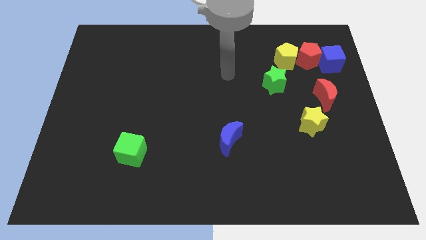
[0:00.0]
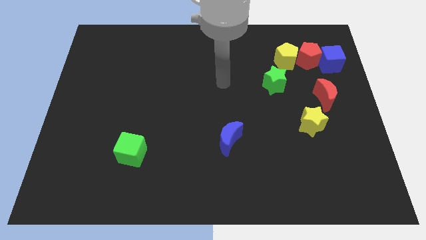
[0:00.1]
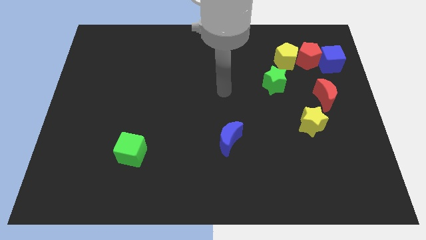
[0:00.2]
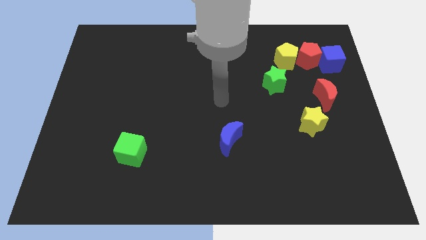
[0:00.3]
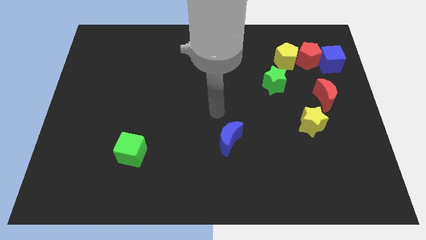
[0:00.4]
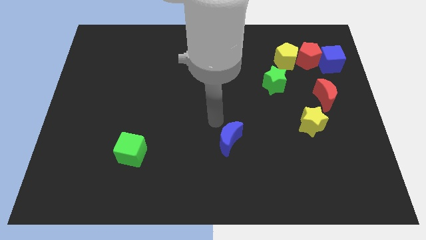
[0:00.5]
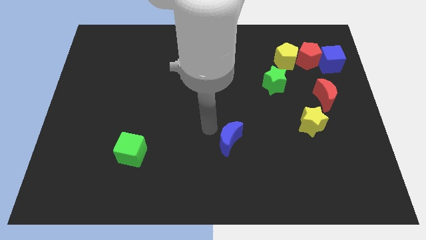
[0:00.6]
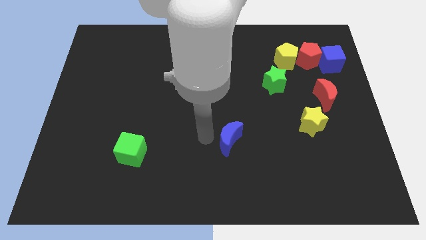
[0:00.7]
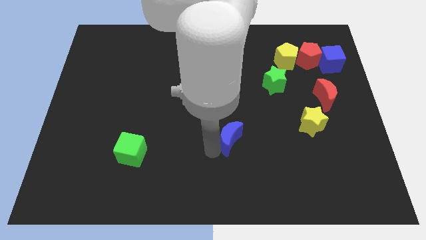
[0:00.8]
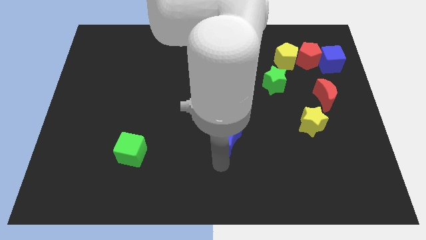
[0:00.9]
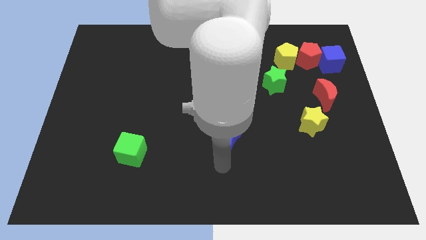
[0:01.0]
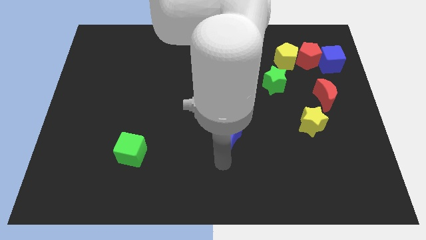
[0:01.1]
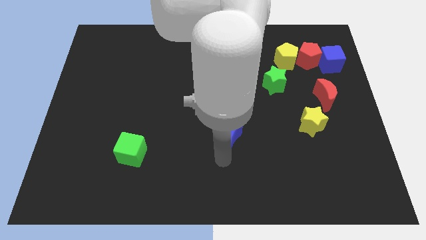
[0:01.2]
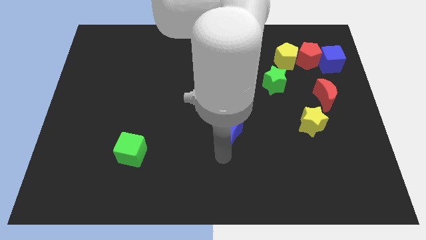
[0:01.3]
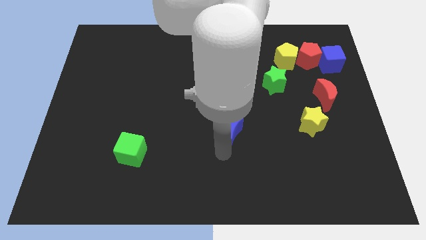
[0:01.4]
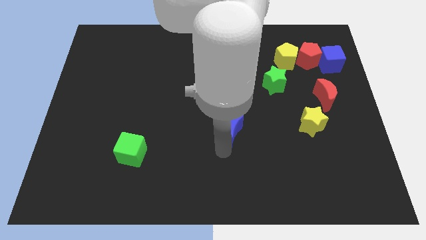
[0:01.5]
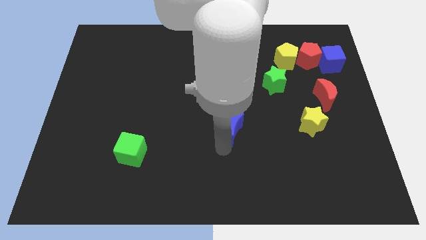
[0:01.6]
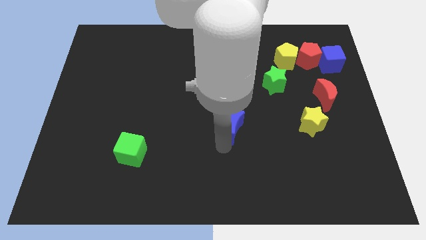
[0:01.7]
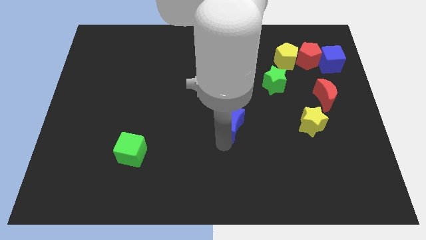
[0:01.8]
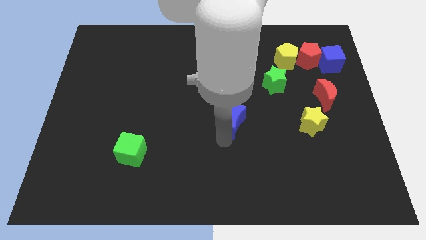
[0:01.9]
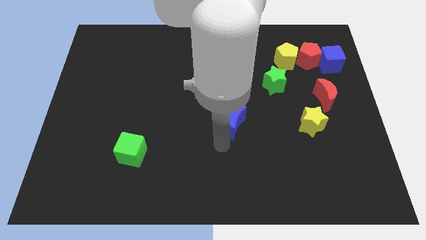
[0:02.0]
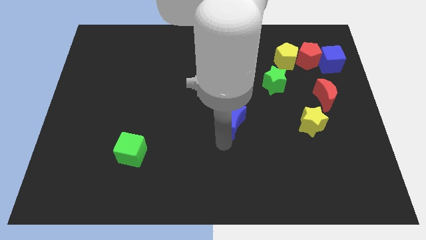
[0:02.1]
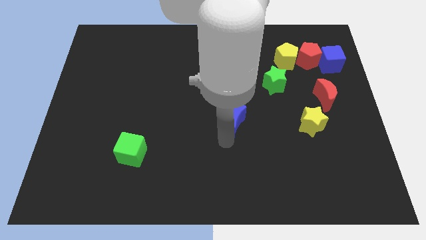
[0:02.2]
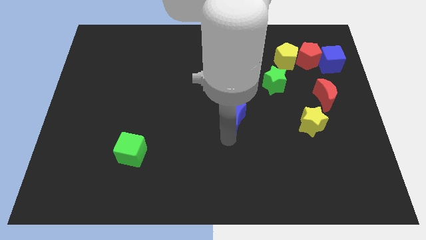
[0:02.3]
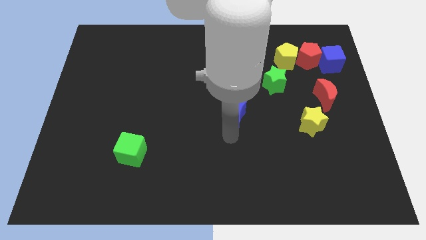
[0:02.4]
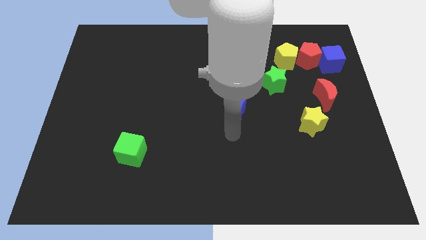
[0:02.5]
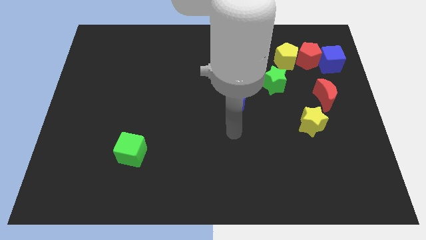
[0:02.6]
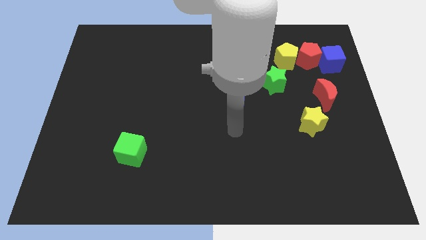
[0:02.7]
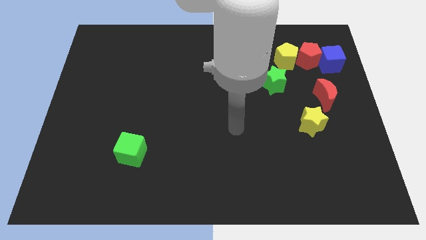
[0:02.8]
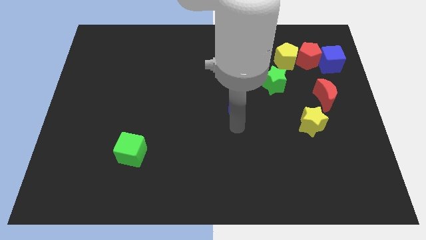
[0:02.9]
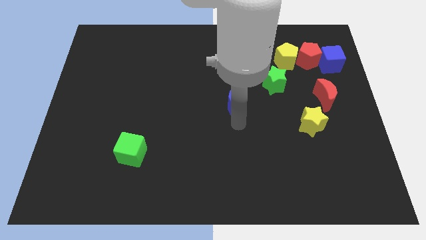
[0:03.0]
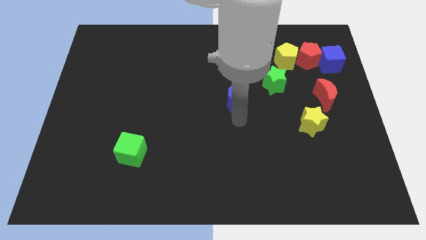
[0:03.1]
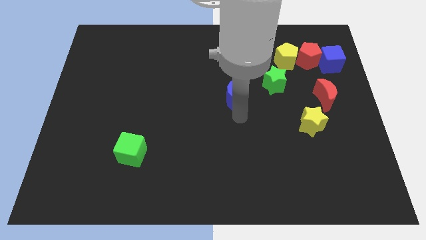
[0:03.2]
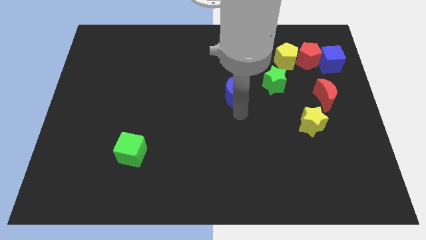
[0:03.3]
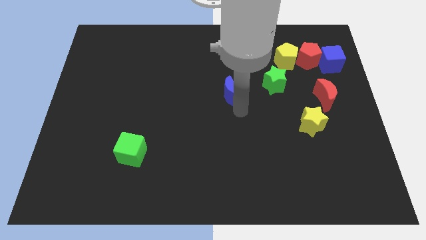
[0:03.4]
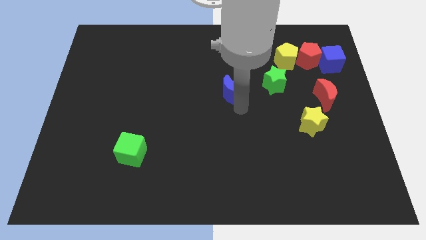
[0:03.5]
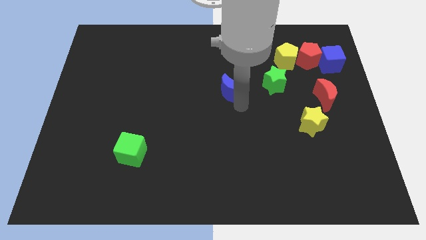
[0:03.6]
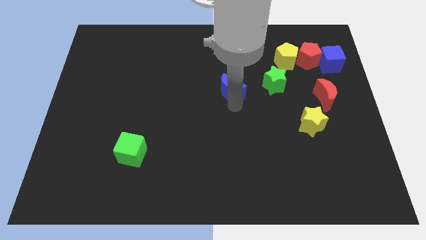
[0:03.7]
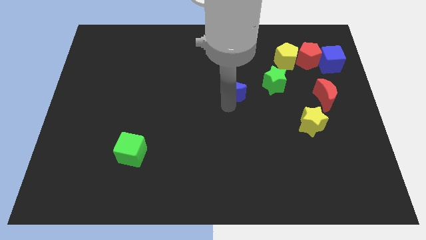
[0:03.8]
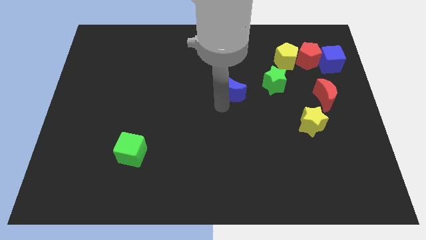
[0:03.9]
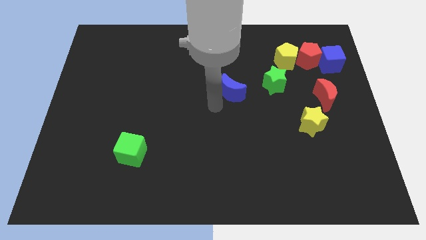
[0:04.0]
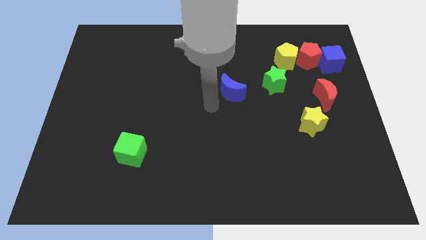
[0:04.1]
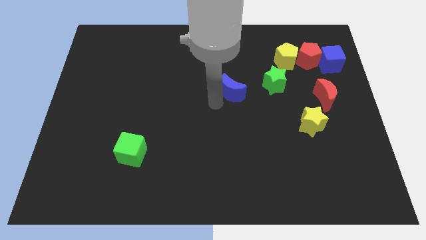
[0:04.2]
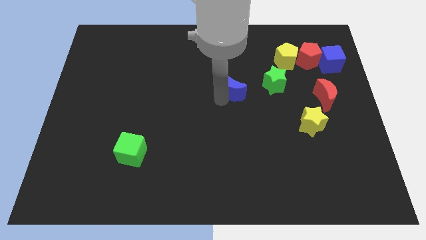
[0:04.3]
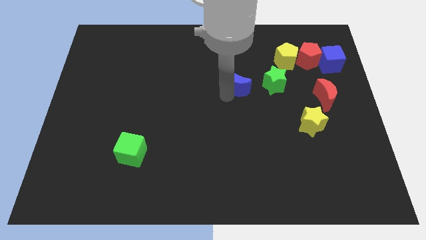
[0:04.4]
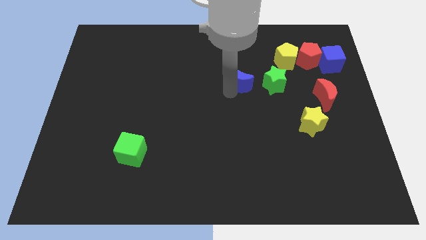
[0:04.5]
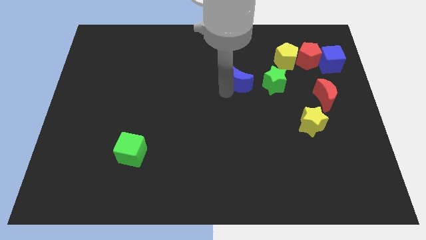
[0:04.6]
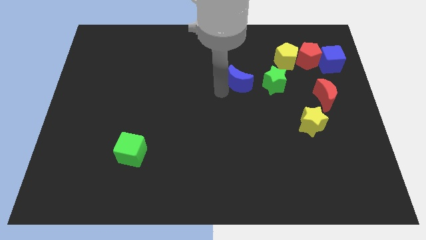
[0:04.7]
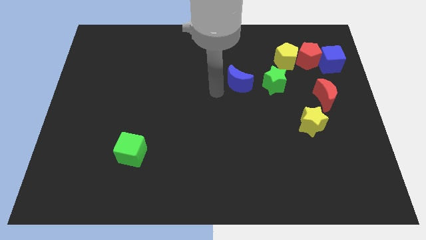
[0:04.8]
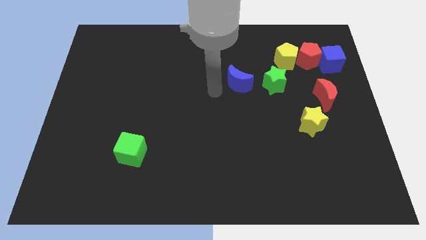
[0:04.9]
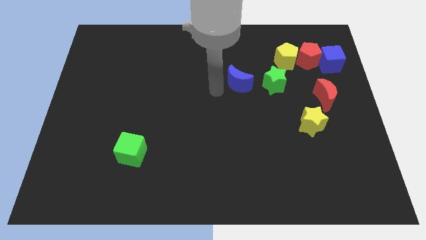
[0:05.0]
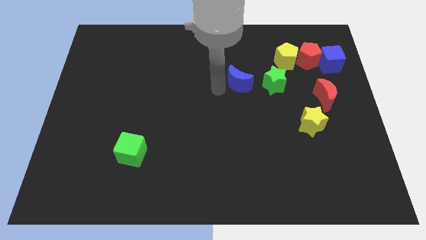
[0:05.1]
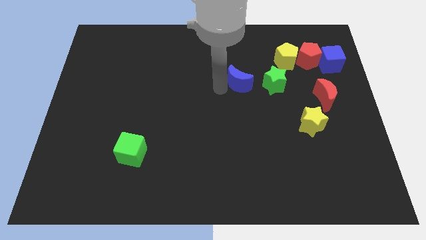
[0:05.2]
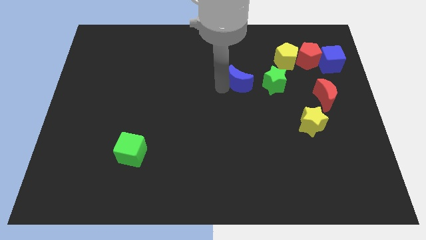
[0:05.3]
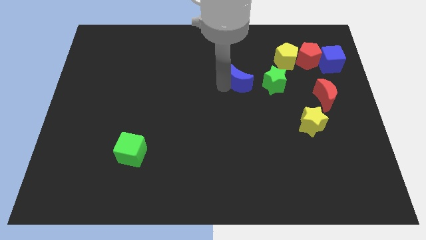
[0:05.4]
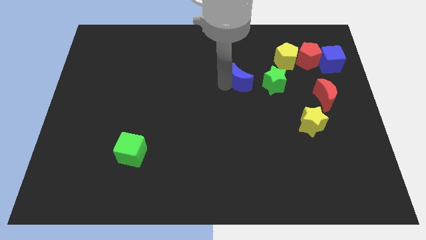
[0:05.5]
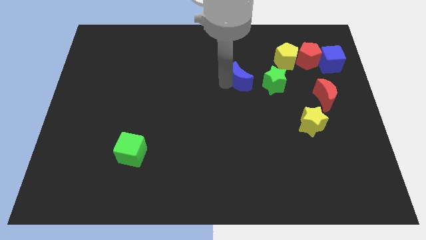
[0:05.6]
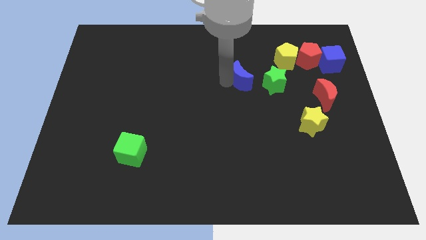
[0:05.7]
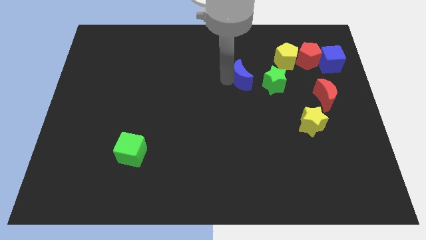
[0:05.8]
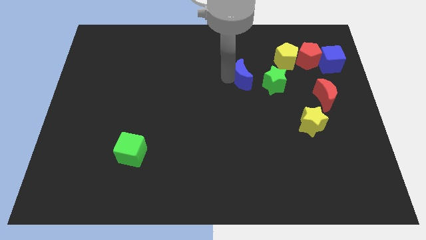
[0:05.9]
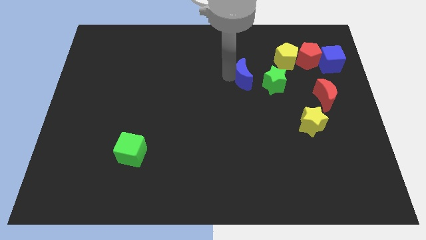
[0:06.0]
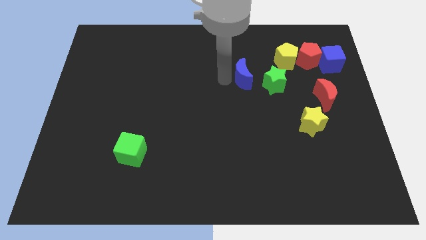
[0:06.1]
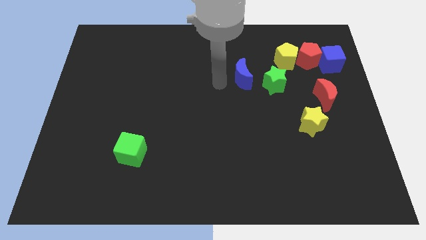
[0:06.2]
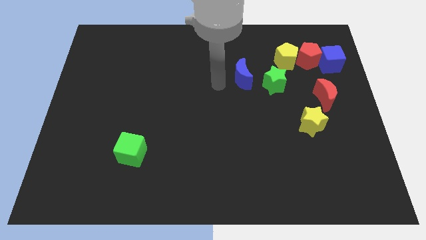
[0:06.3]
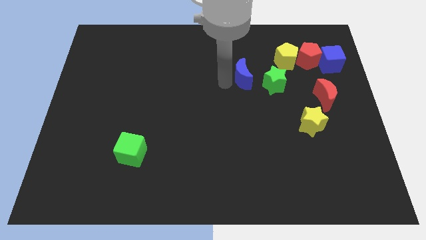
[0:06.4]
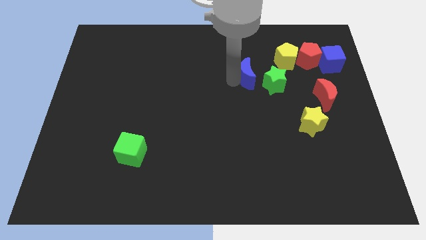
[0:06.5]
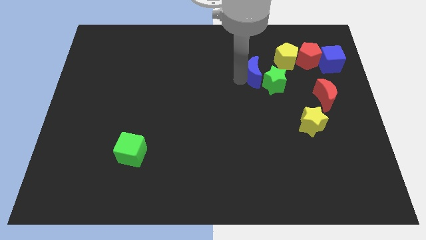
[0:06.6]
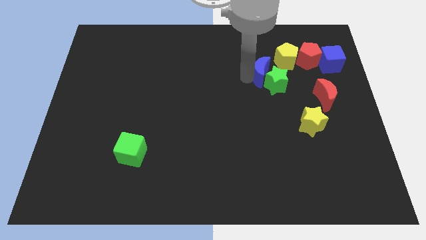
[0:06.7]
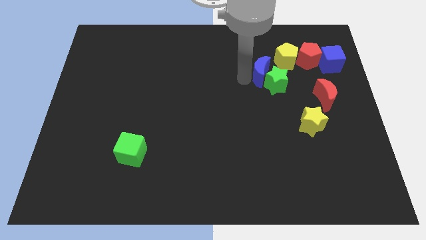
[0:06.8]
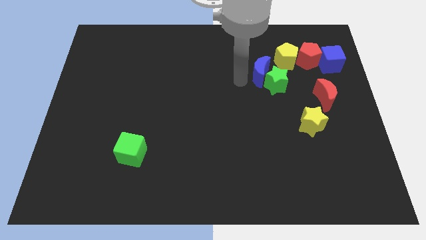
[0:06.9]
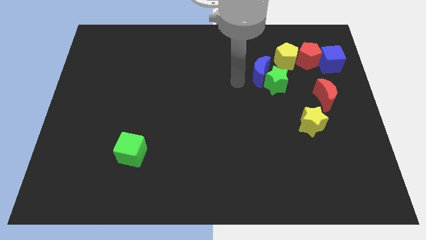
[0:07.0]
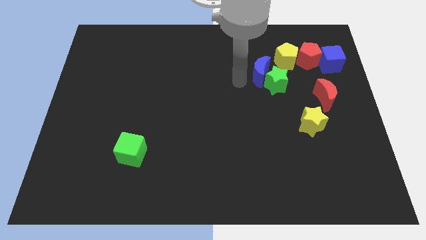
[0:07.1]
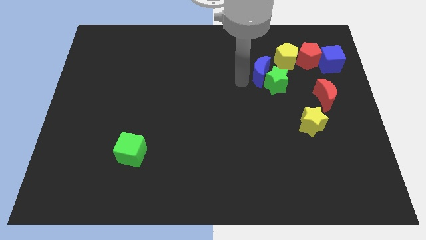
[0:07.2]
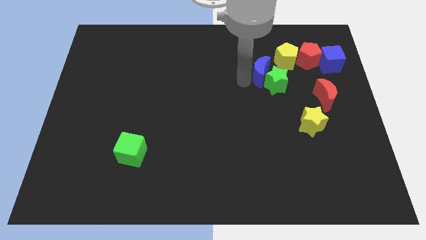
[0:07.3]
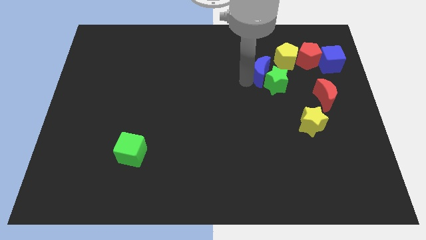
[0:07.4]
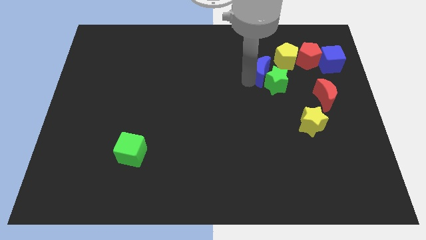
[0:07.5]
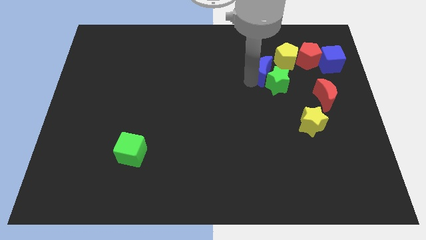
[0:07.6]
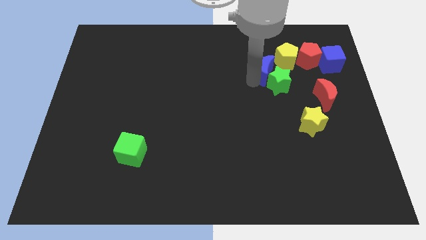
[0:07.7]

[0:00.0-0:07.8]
move the blue moon left of the red pentagon
